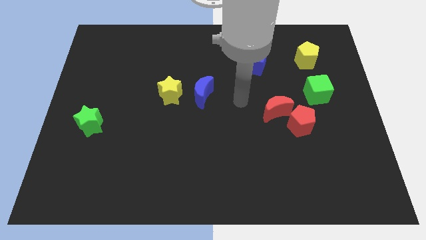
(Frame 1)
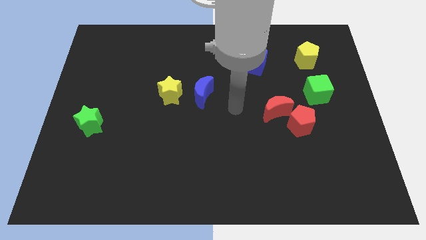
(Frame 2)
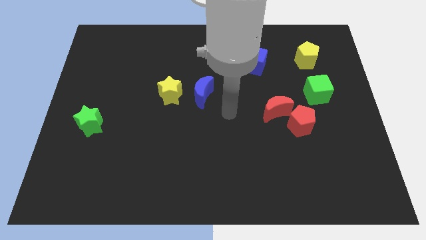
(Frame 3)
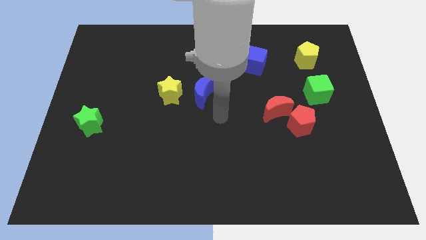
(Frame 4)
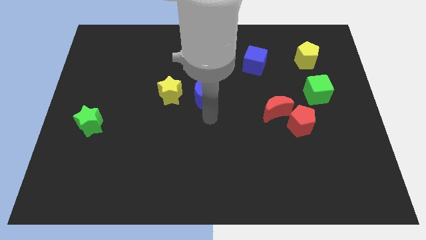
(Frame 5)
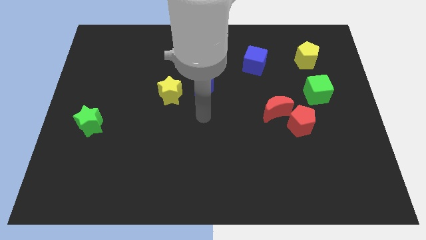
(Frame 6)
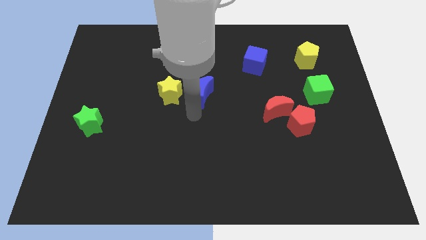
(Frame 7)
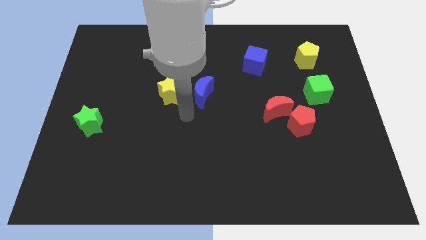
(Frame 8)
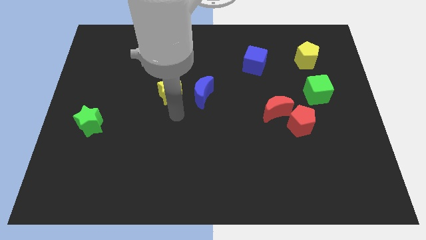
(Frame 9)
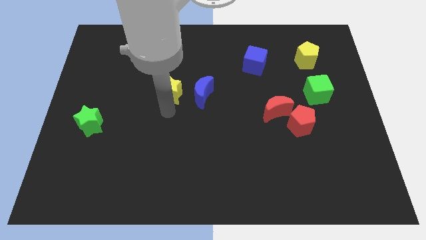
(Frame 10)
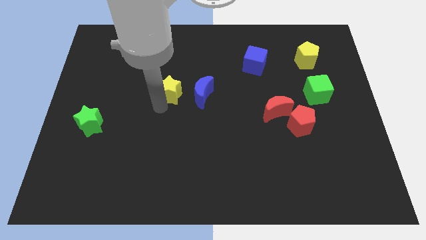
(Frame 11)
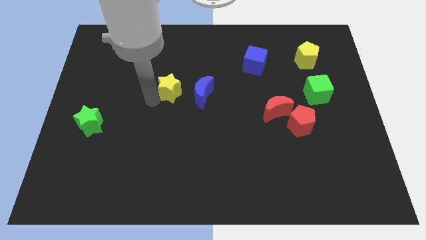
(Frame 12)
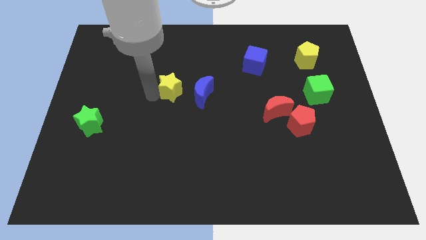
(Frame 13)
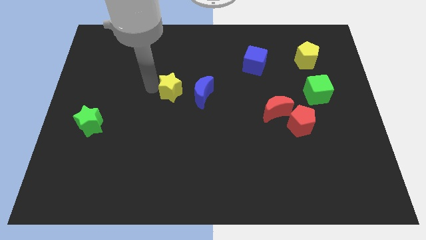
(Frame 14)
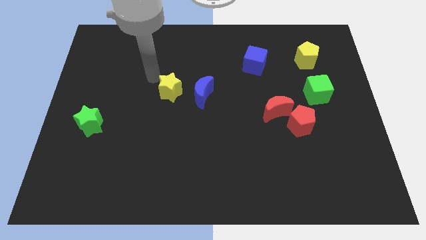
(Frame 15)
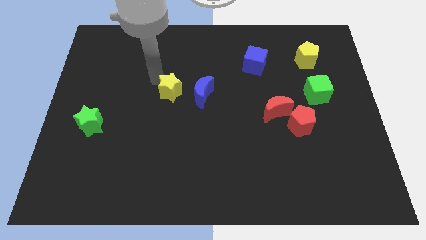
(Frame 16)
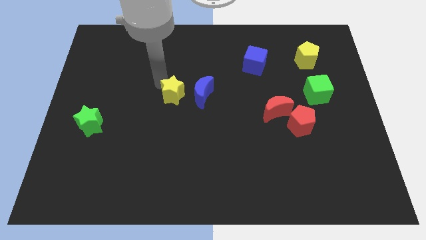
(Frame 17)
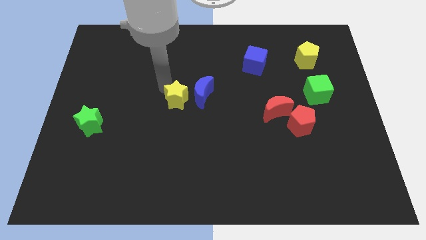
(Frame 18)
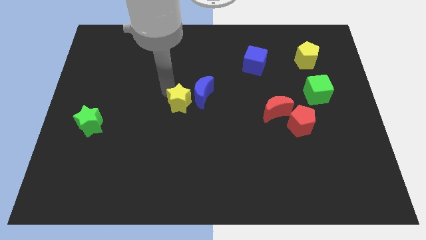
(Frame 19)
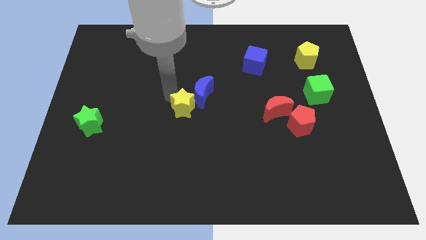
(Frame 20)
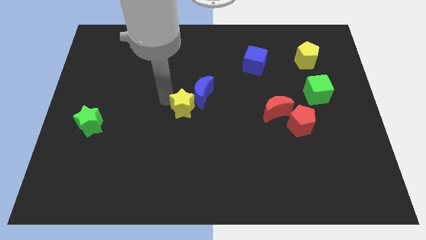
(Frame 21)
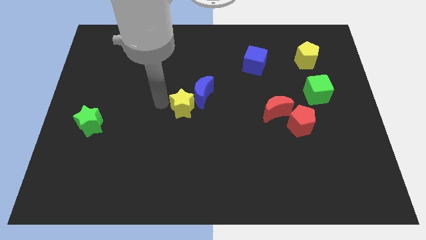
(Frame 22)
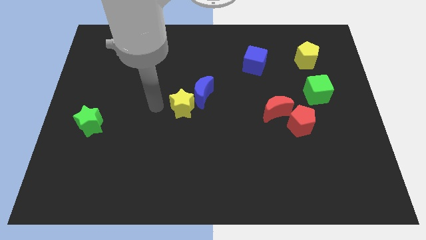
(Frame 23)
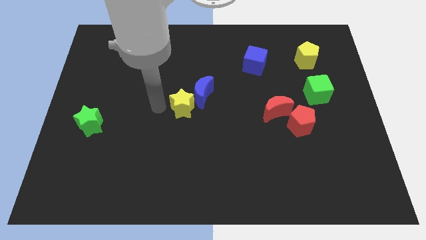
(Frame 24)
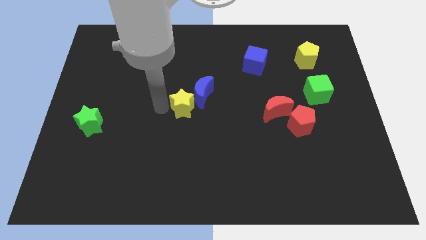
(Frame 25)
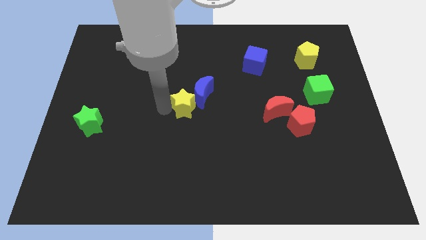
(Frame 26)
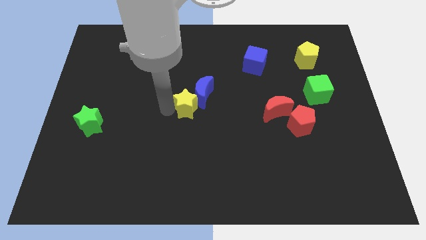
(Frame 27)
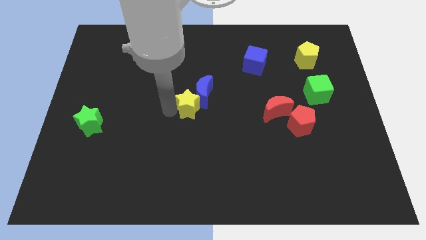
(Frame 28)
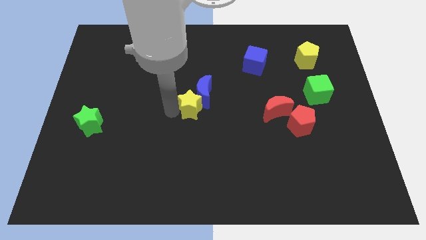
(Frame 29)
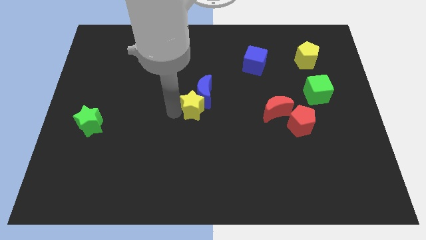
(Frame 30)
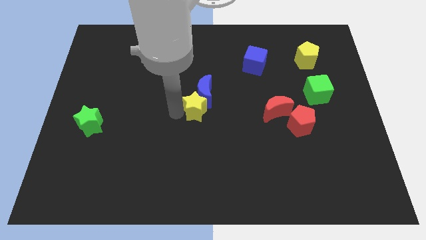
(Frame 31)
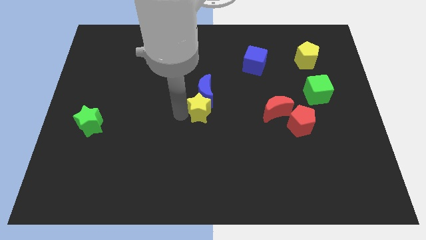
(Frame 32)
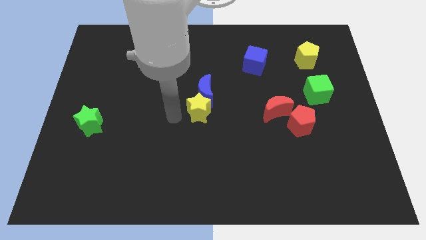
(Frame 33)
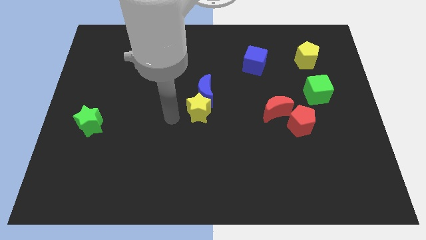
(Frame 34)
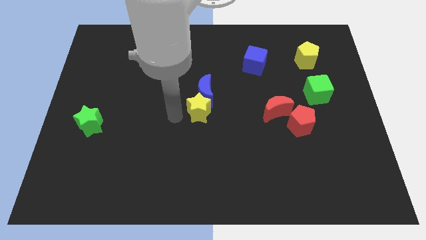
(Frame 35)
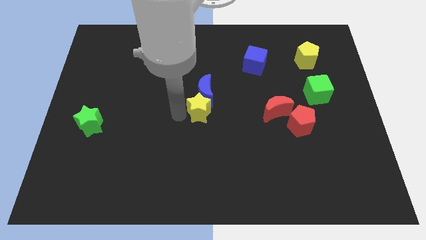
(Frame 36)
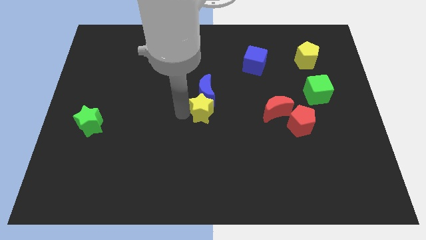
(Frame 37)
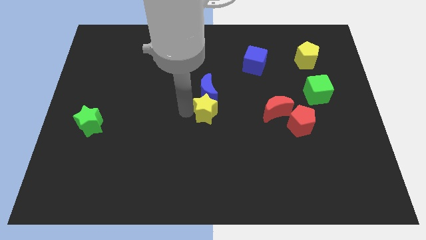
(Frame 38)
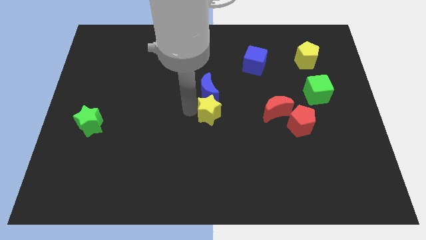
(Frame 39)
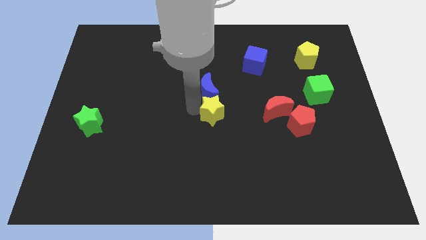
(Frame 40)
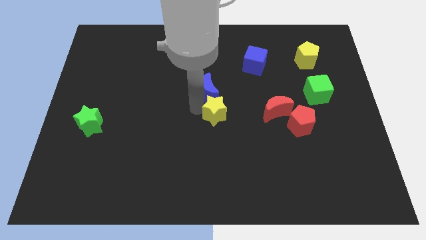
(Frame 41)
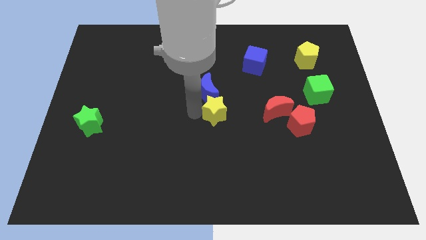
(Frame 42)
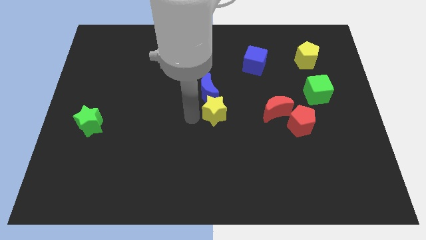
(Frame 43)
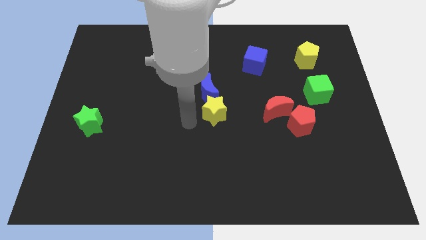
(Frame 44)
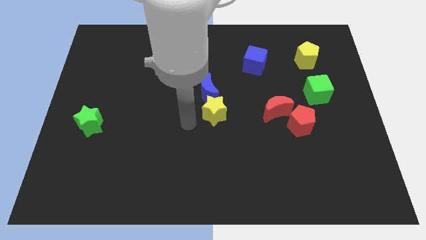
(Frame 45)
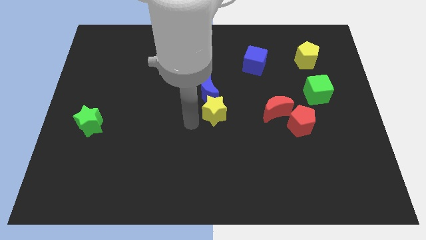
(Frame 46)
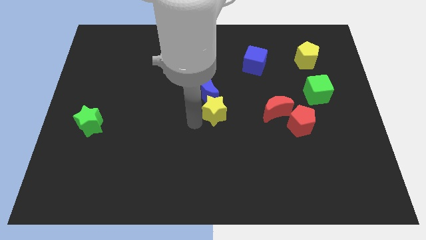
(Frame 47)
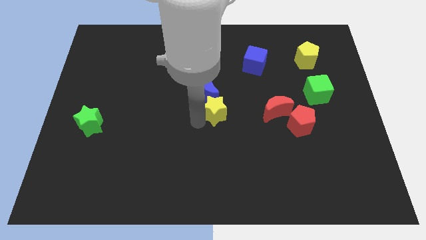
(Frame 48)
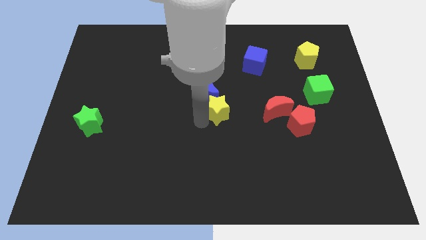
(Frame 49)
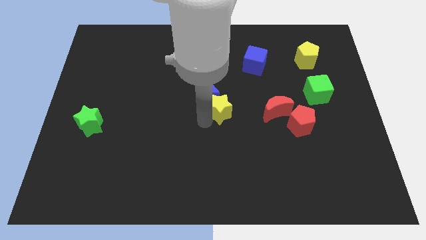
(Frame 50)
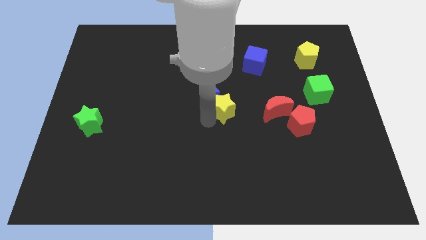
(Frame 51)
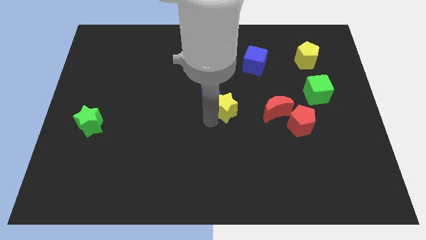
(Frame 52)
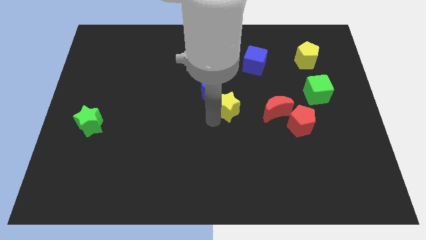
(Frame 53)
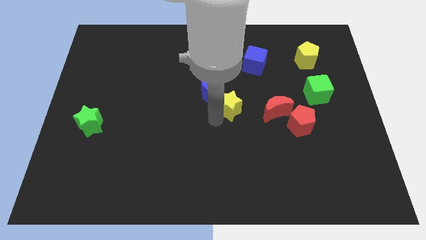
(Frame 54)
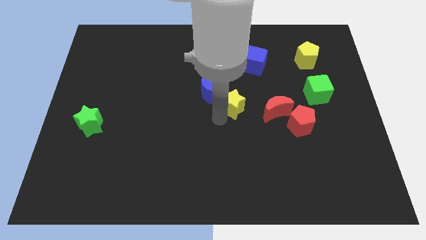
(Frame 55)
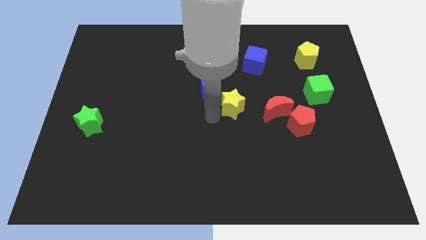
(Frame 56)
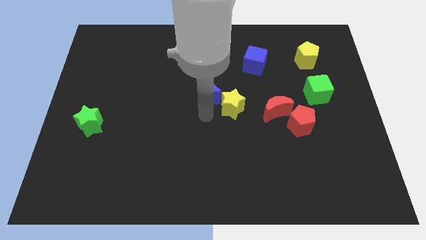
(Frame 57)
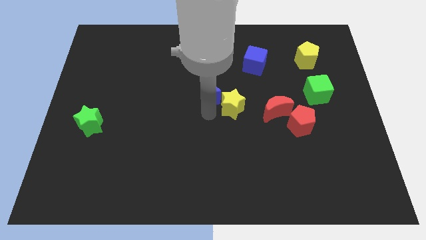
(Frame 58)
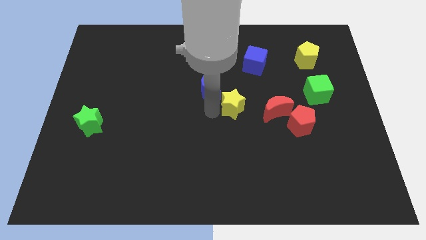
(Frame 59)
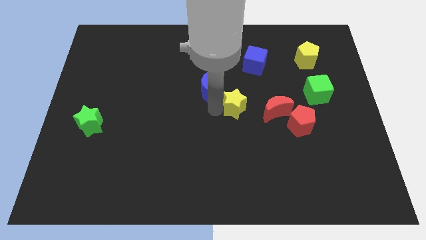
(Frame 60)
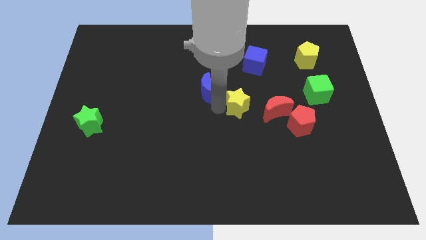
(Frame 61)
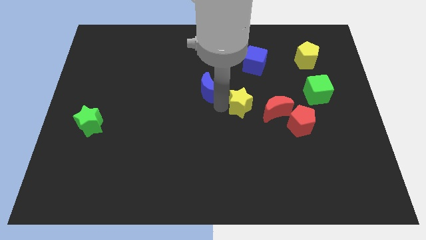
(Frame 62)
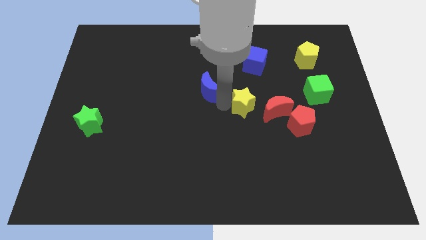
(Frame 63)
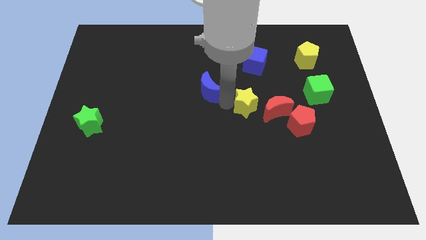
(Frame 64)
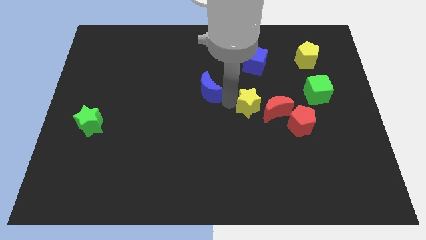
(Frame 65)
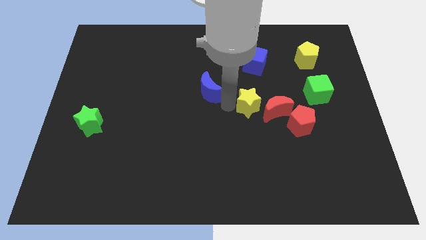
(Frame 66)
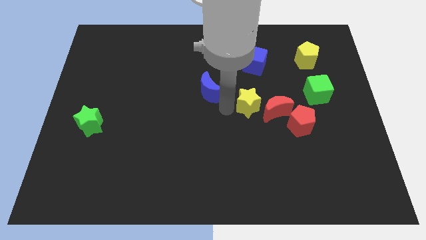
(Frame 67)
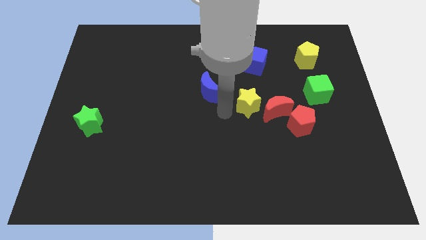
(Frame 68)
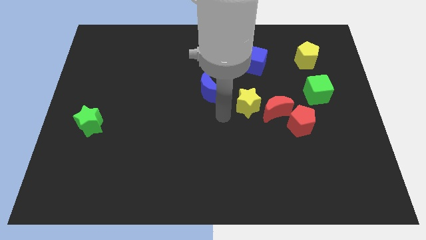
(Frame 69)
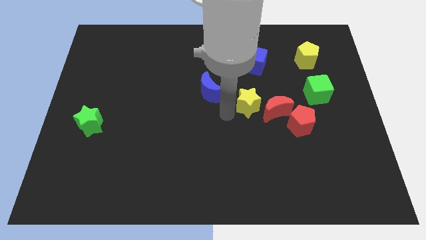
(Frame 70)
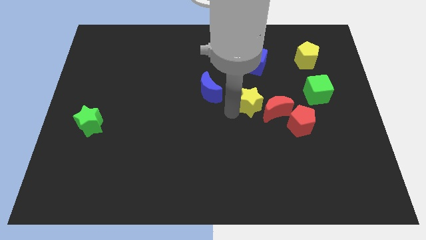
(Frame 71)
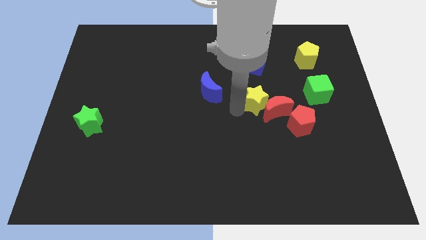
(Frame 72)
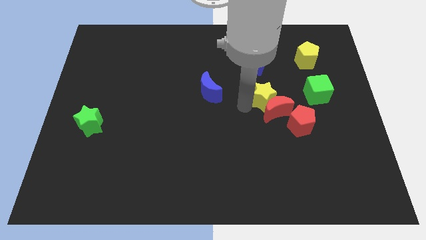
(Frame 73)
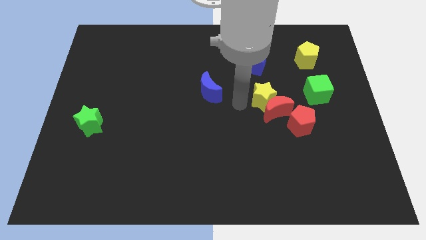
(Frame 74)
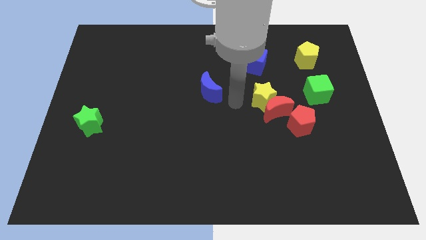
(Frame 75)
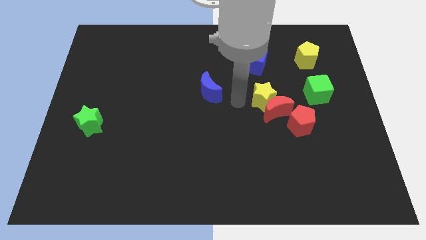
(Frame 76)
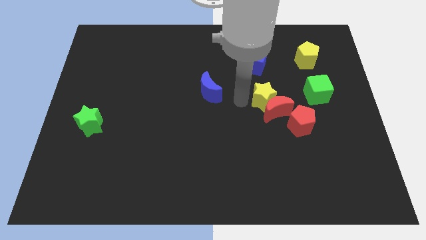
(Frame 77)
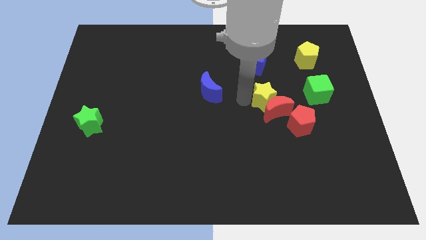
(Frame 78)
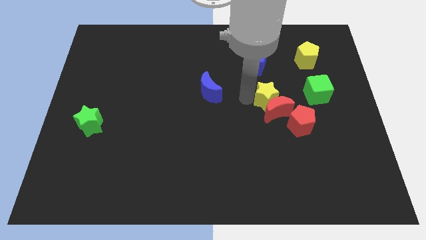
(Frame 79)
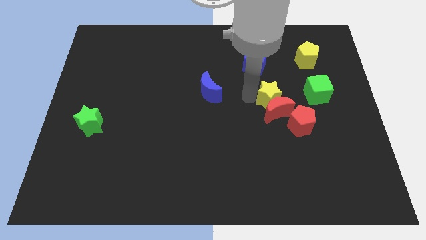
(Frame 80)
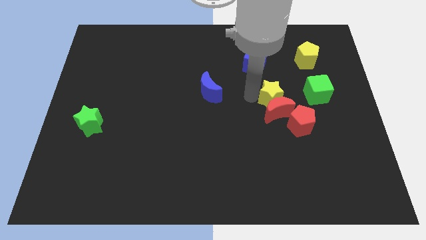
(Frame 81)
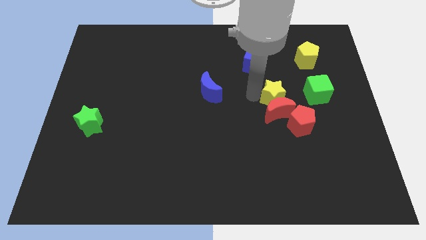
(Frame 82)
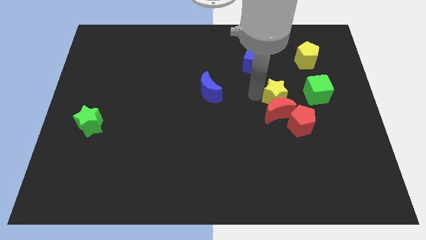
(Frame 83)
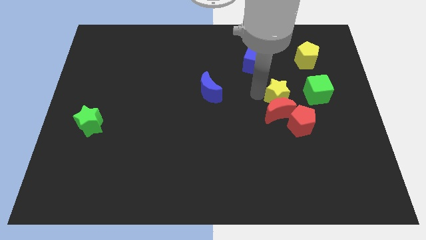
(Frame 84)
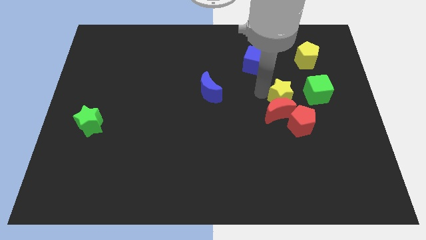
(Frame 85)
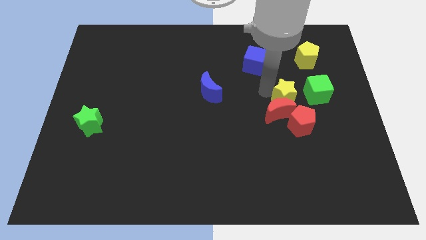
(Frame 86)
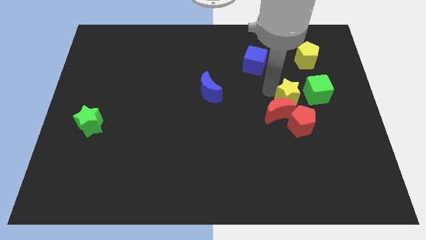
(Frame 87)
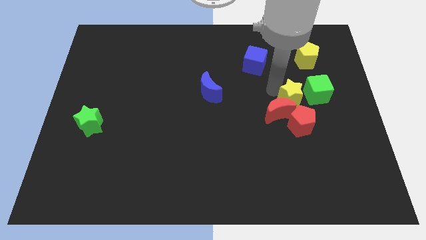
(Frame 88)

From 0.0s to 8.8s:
move the yellow star just right of the red moon
